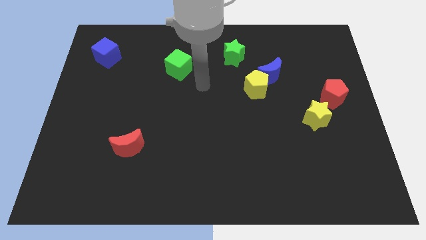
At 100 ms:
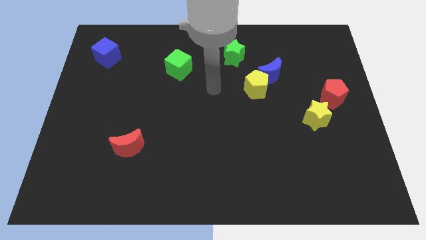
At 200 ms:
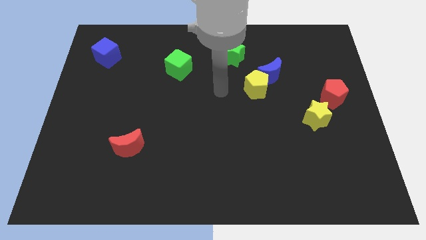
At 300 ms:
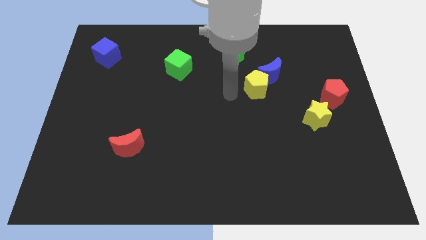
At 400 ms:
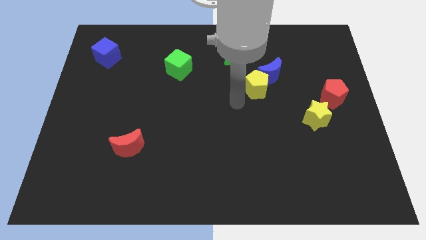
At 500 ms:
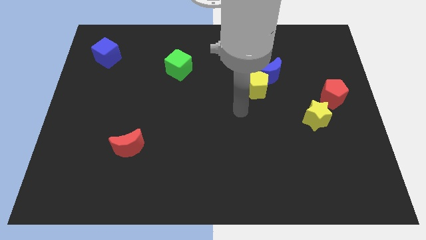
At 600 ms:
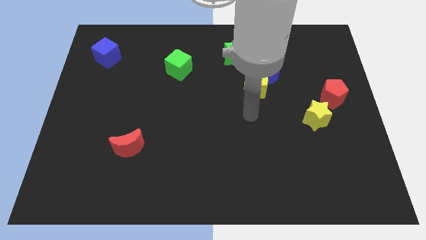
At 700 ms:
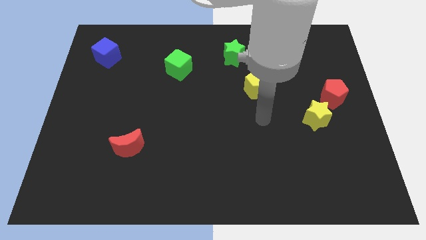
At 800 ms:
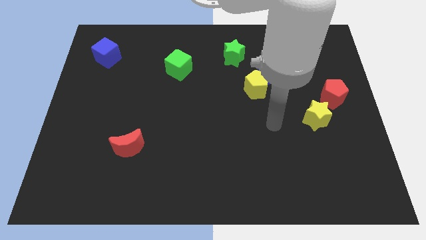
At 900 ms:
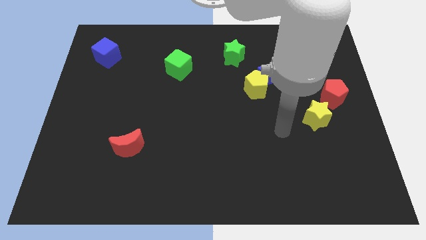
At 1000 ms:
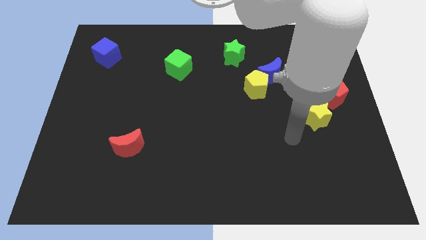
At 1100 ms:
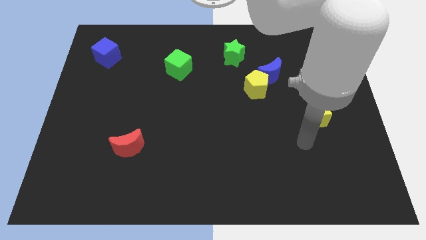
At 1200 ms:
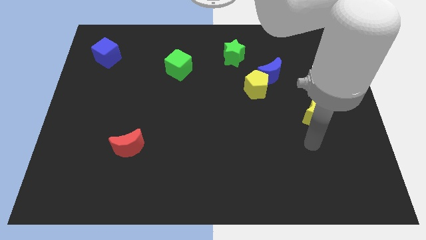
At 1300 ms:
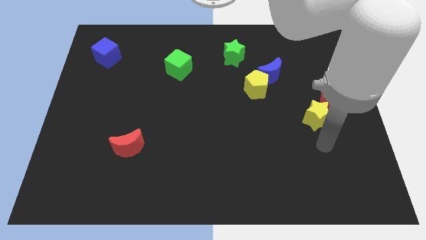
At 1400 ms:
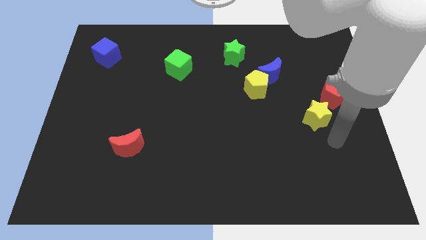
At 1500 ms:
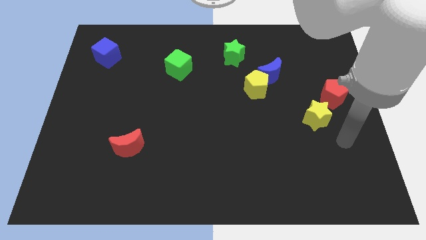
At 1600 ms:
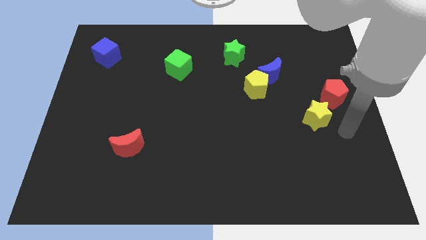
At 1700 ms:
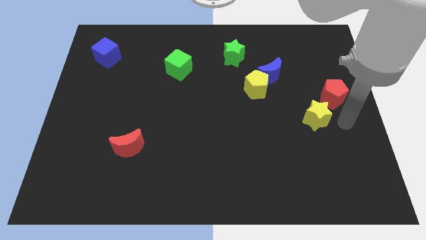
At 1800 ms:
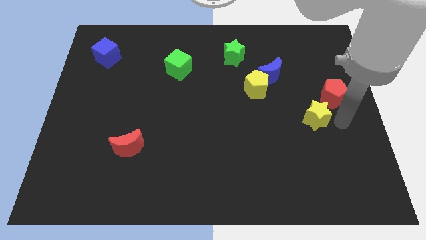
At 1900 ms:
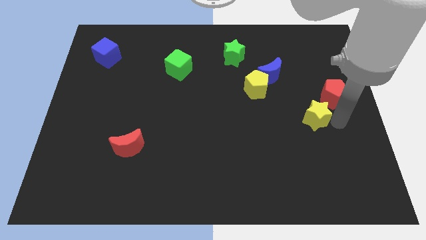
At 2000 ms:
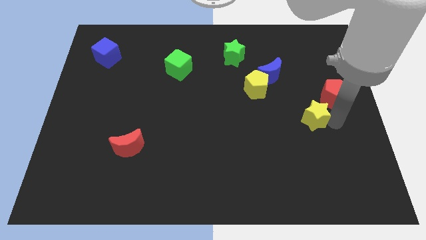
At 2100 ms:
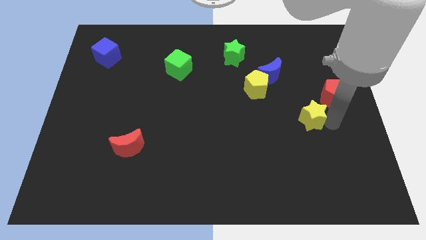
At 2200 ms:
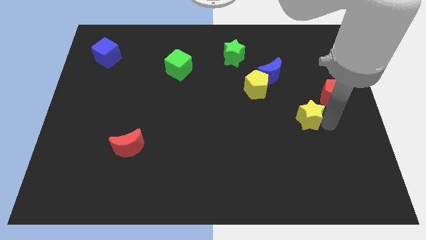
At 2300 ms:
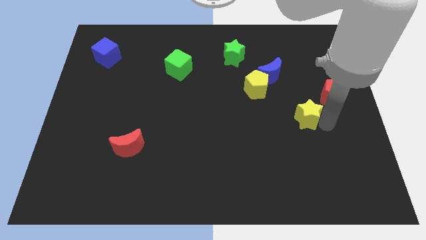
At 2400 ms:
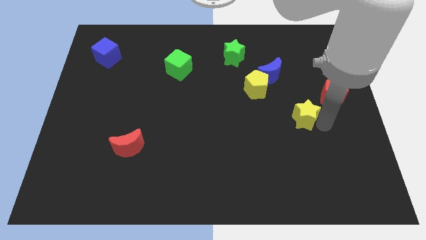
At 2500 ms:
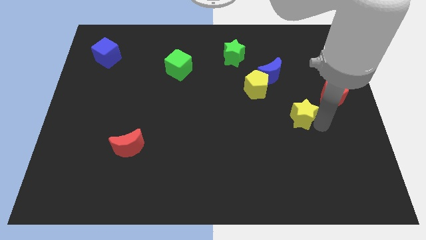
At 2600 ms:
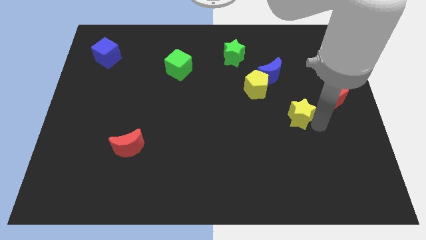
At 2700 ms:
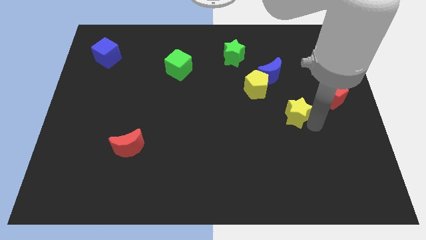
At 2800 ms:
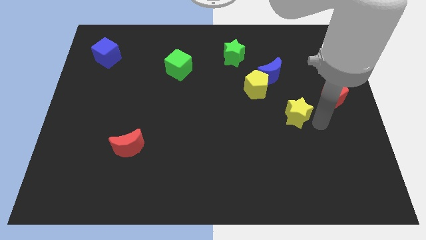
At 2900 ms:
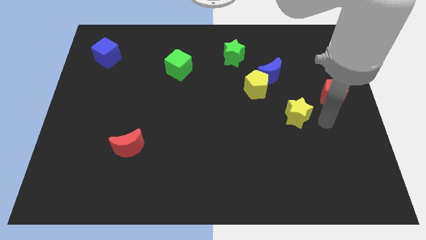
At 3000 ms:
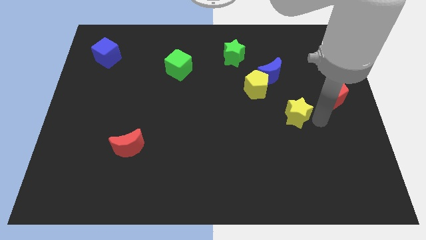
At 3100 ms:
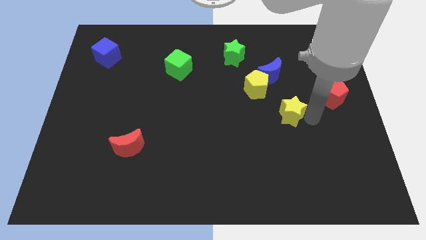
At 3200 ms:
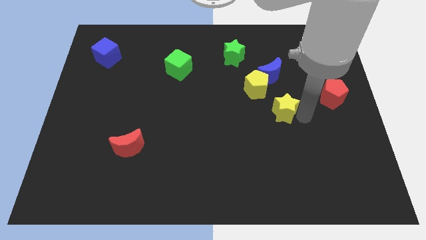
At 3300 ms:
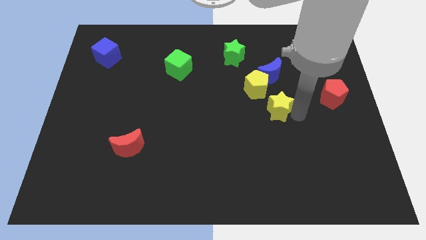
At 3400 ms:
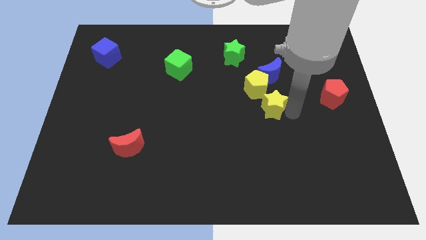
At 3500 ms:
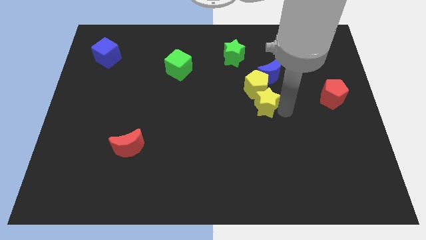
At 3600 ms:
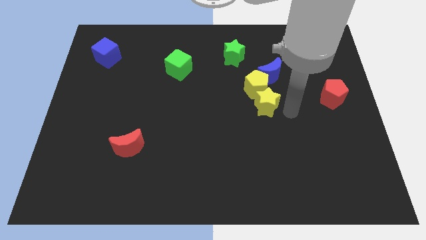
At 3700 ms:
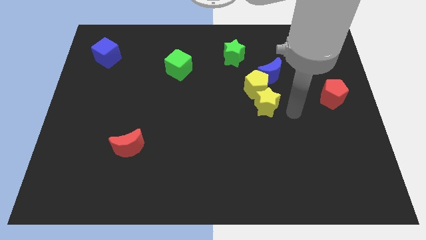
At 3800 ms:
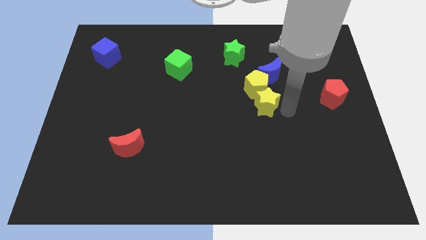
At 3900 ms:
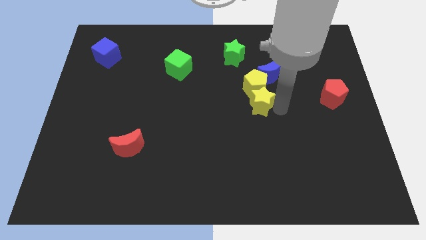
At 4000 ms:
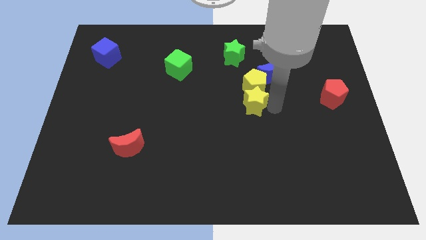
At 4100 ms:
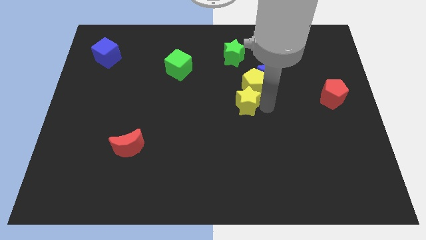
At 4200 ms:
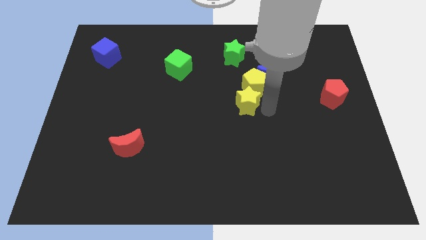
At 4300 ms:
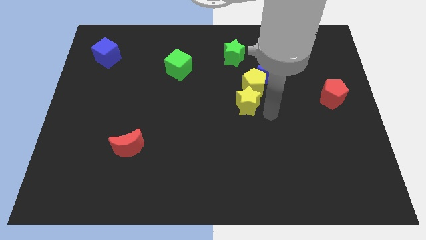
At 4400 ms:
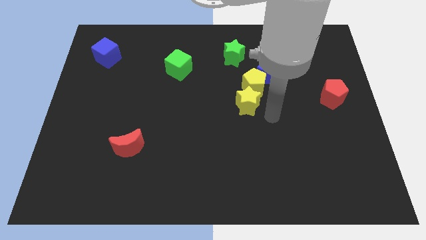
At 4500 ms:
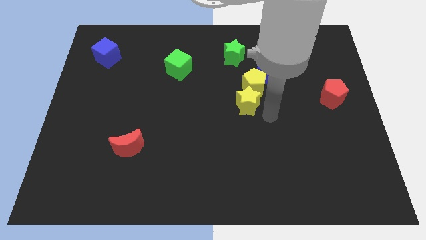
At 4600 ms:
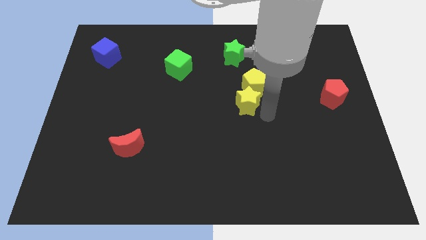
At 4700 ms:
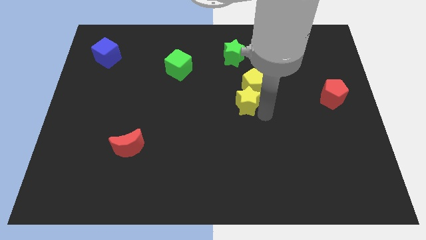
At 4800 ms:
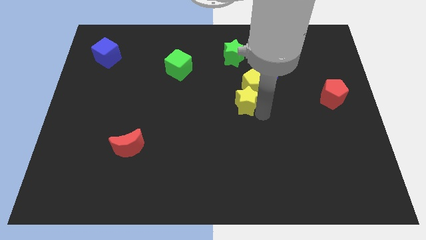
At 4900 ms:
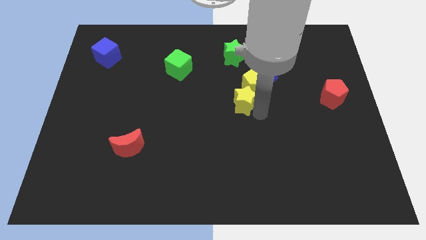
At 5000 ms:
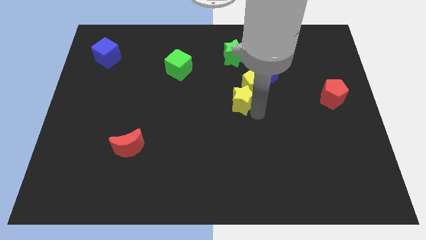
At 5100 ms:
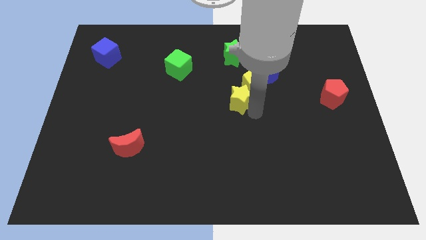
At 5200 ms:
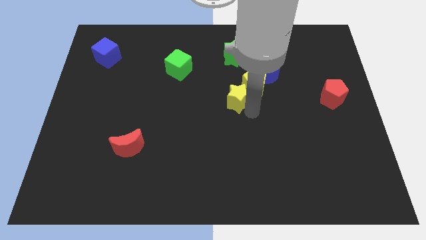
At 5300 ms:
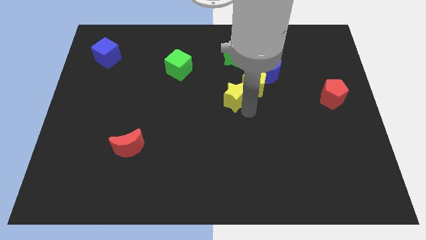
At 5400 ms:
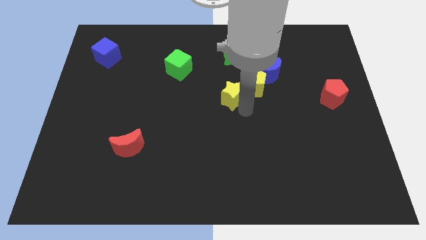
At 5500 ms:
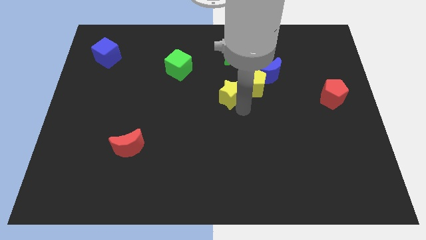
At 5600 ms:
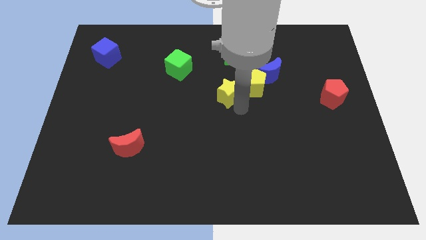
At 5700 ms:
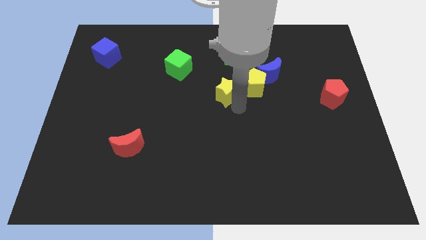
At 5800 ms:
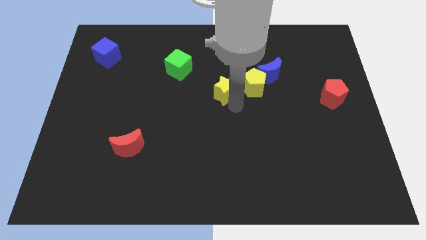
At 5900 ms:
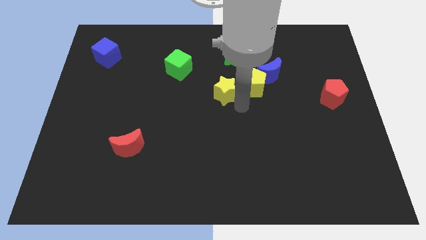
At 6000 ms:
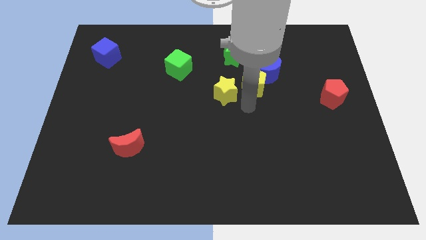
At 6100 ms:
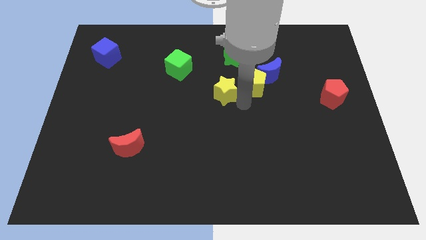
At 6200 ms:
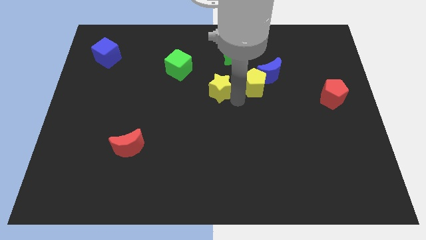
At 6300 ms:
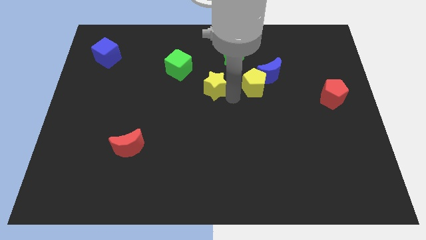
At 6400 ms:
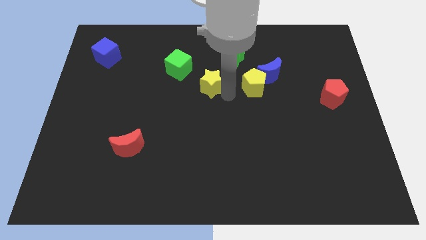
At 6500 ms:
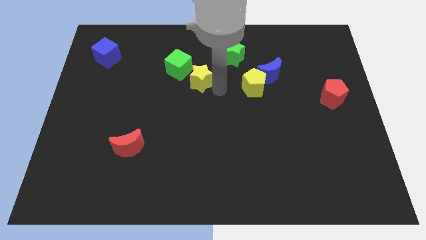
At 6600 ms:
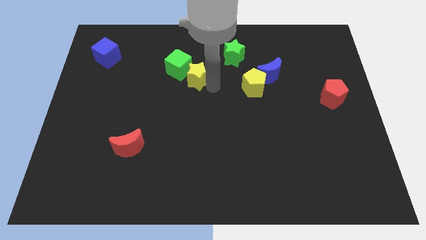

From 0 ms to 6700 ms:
put the yellow star close to the green cube

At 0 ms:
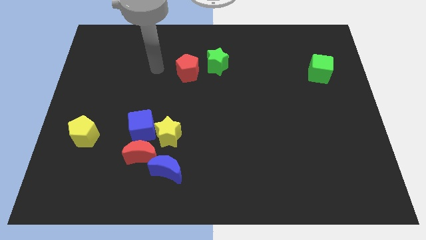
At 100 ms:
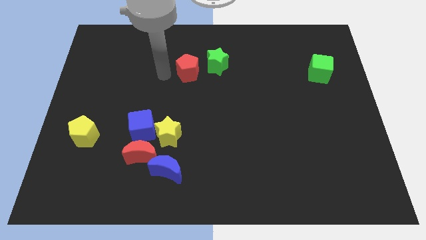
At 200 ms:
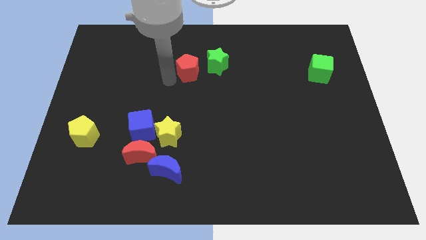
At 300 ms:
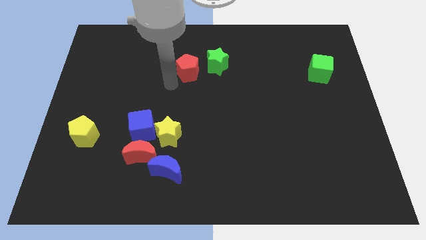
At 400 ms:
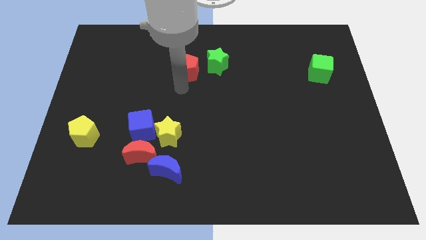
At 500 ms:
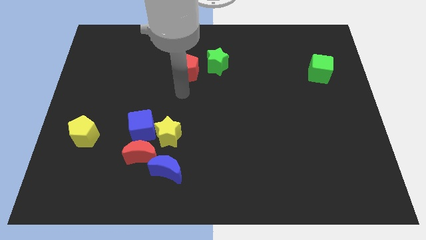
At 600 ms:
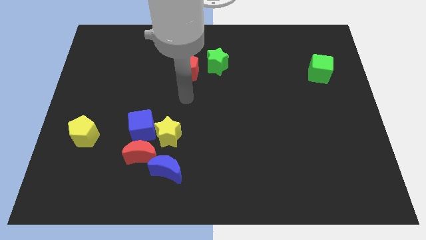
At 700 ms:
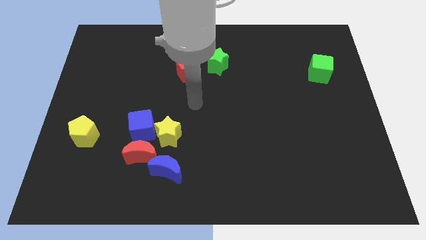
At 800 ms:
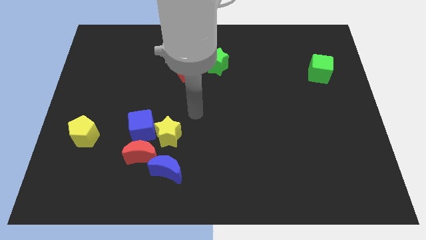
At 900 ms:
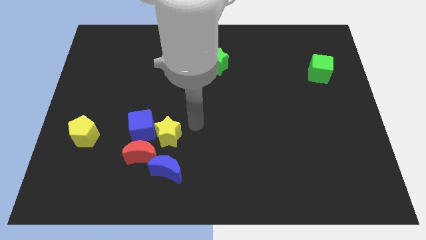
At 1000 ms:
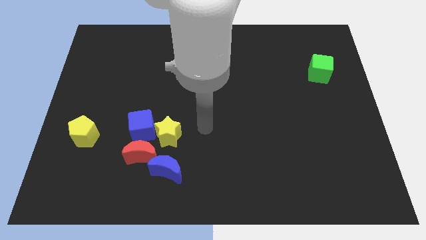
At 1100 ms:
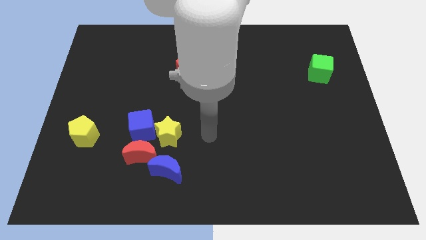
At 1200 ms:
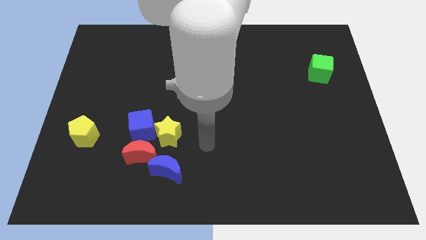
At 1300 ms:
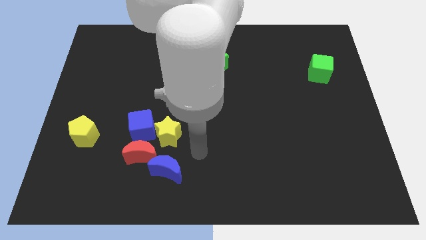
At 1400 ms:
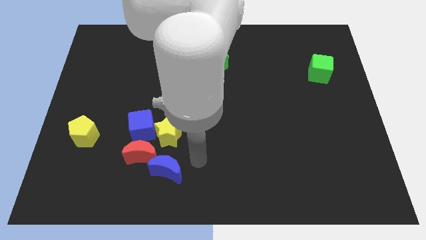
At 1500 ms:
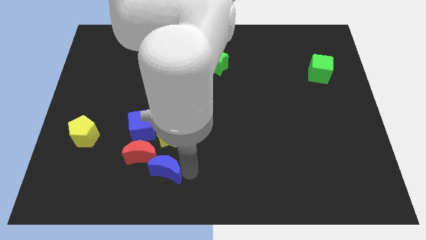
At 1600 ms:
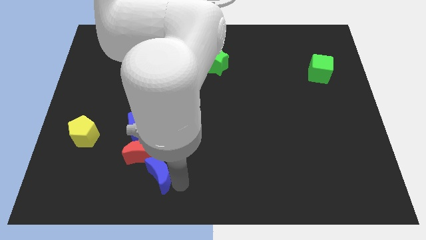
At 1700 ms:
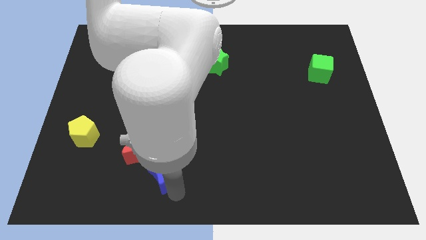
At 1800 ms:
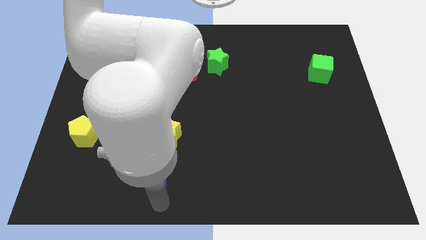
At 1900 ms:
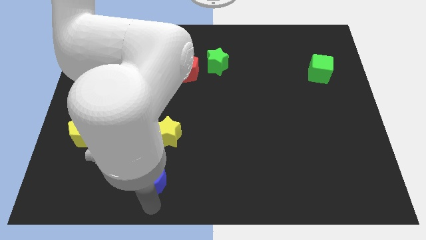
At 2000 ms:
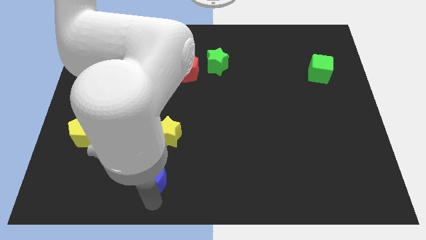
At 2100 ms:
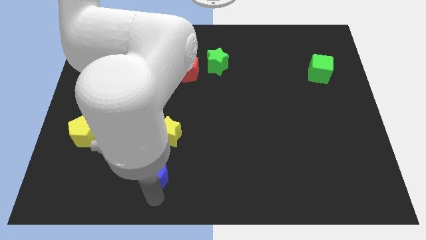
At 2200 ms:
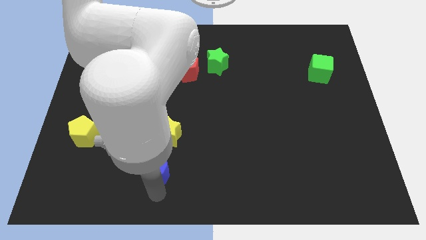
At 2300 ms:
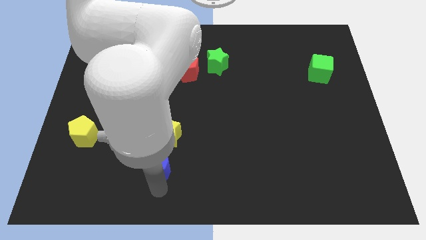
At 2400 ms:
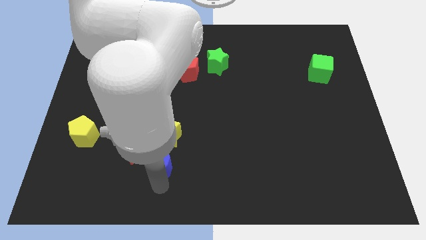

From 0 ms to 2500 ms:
push the blue moon to the yellow star
